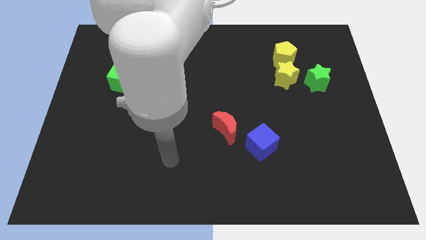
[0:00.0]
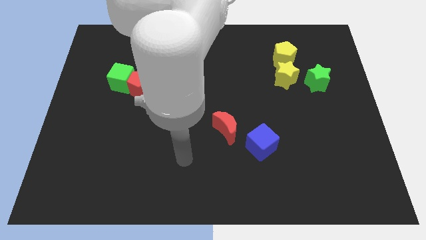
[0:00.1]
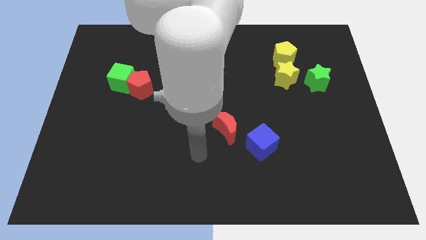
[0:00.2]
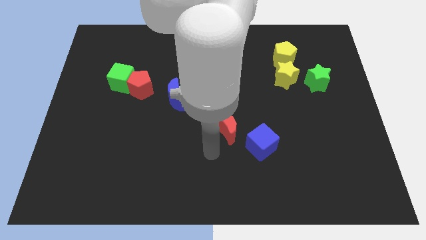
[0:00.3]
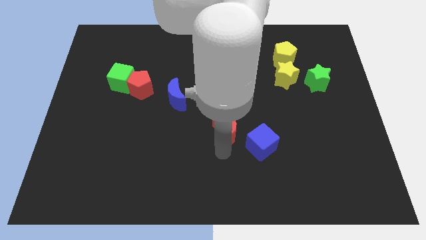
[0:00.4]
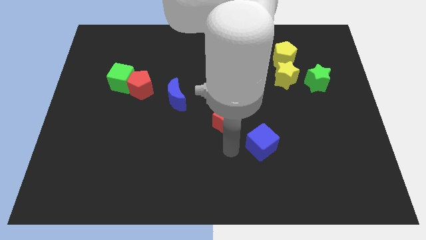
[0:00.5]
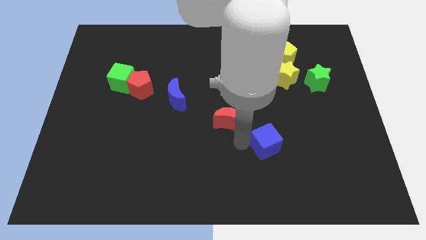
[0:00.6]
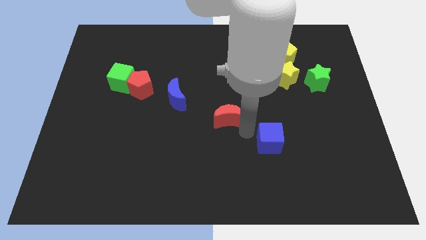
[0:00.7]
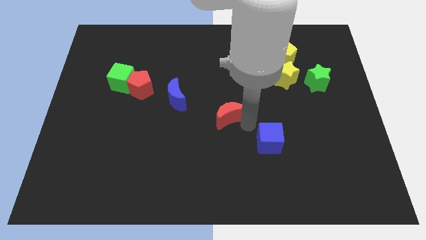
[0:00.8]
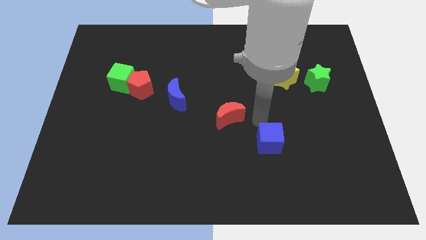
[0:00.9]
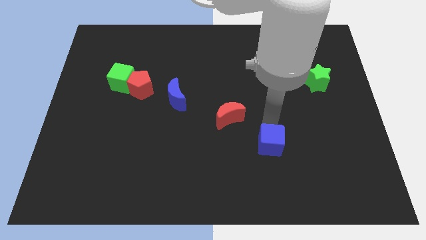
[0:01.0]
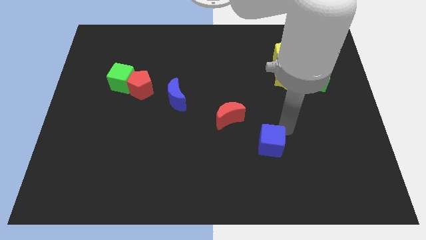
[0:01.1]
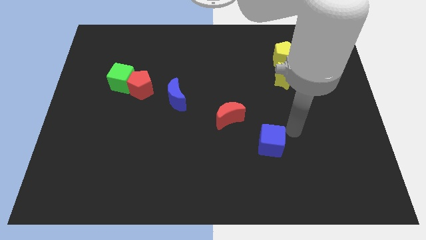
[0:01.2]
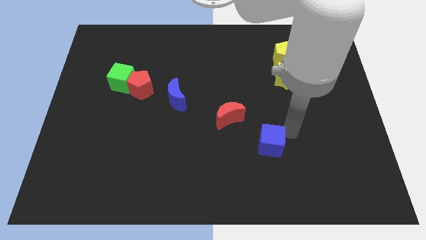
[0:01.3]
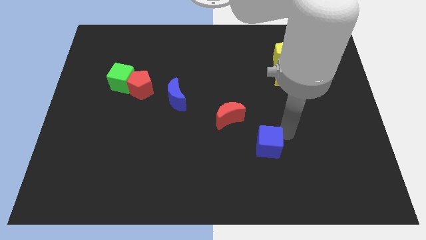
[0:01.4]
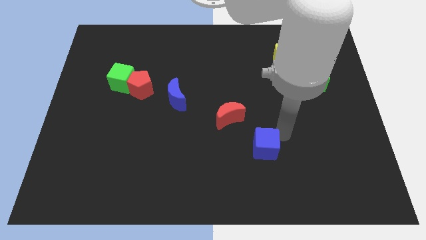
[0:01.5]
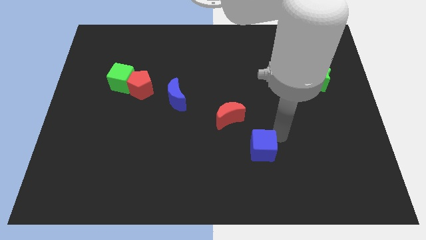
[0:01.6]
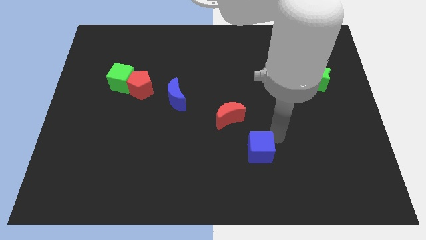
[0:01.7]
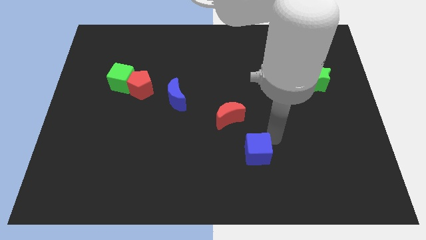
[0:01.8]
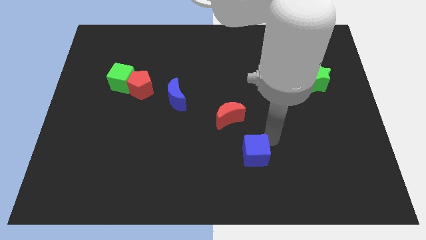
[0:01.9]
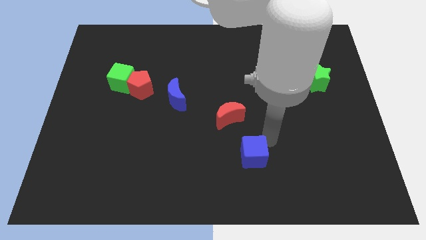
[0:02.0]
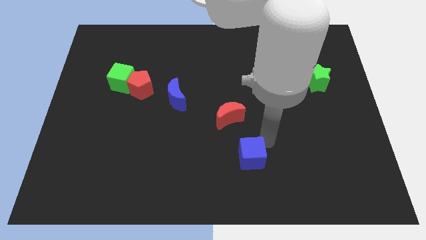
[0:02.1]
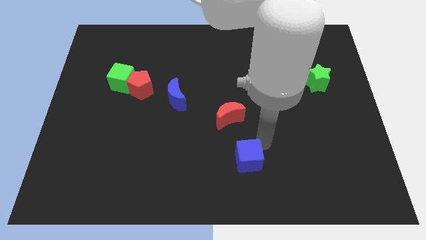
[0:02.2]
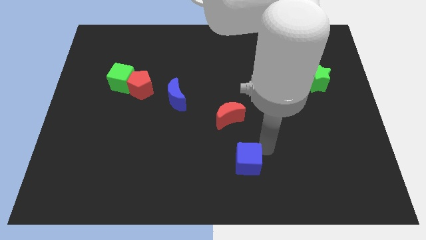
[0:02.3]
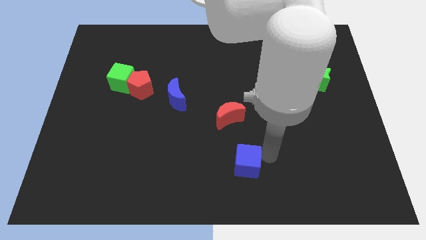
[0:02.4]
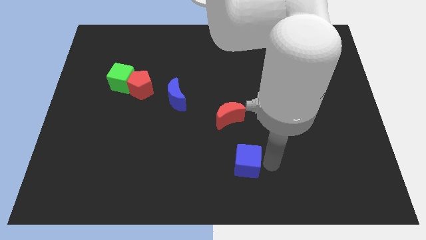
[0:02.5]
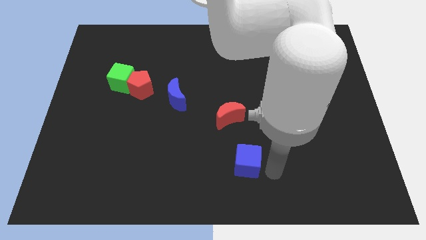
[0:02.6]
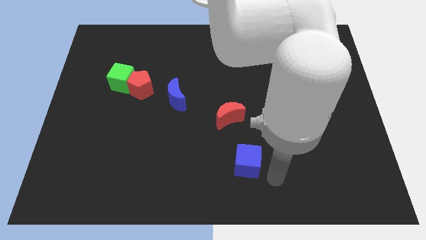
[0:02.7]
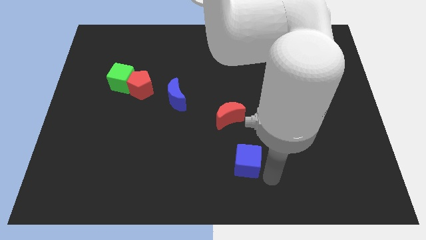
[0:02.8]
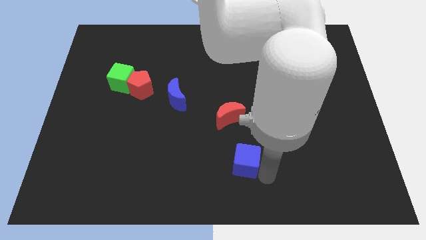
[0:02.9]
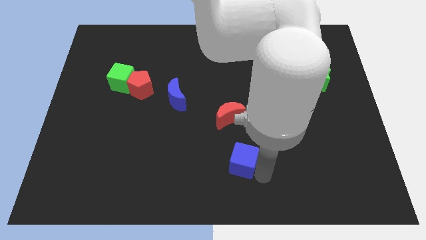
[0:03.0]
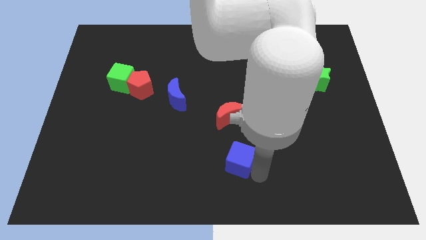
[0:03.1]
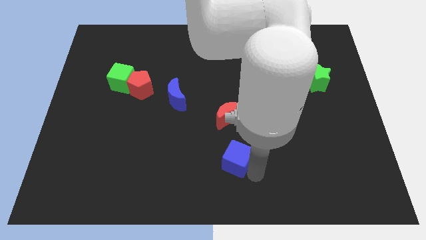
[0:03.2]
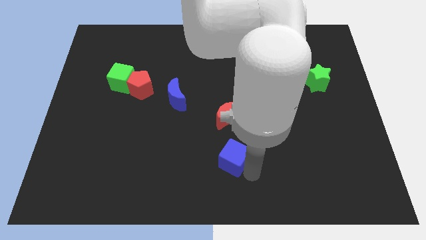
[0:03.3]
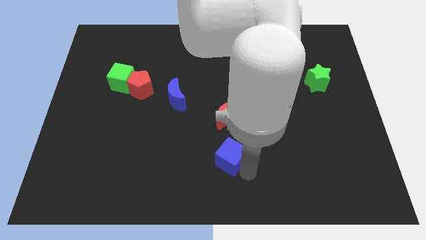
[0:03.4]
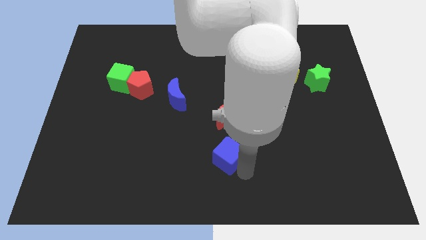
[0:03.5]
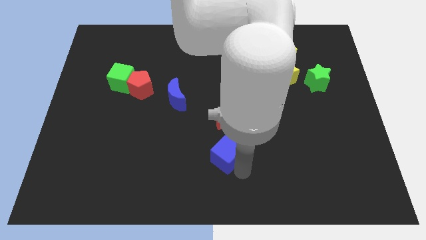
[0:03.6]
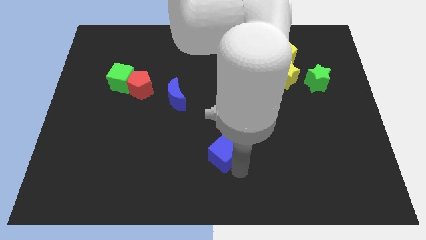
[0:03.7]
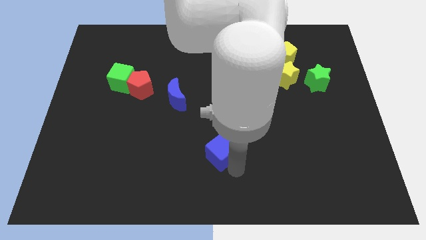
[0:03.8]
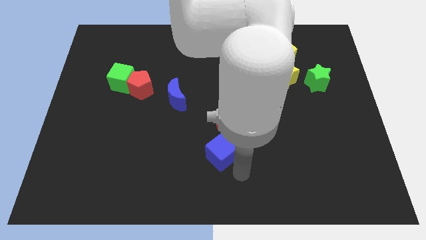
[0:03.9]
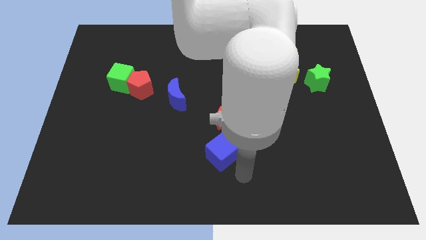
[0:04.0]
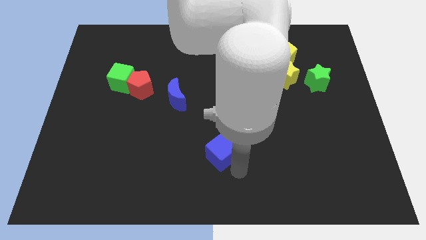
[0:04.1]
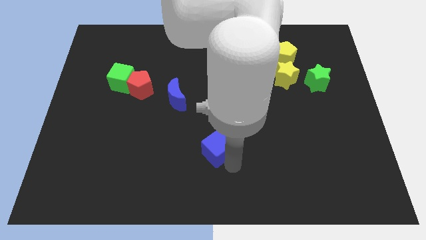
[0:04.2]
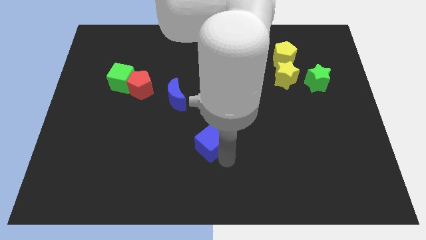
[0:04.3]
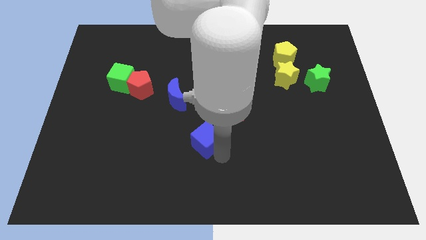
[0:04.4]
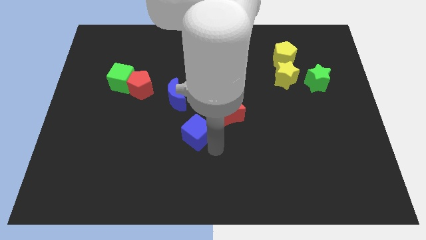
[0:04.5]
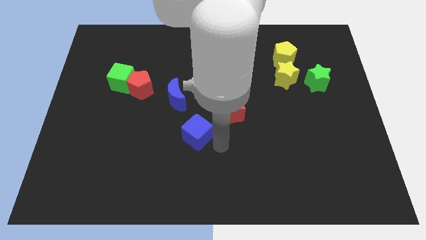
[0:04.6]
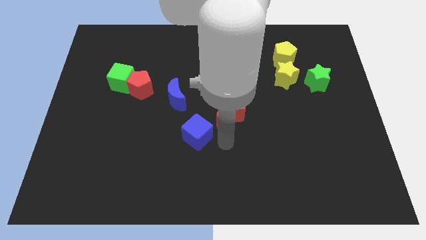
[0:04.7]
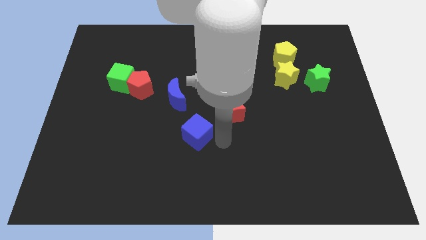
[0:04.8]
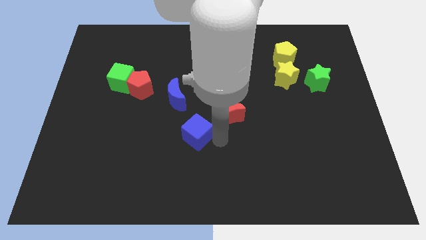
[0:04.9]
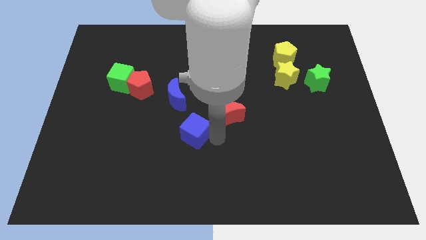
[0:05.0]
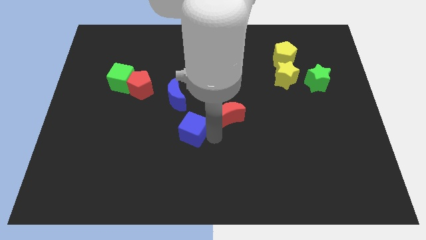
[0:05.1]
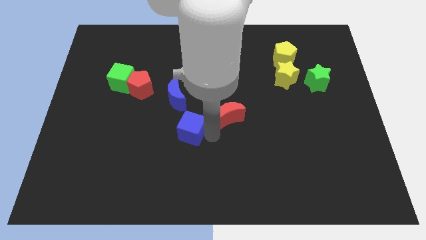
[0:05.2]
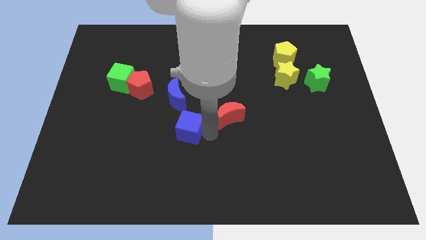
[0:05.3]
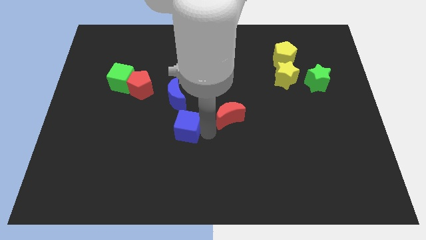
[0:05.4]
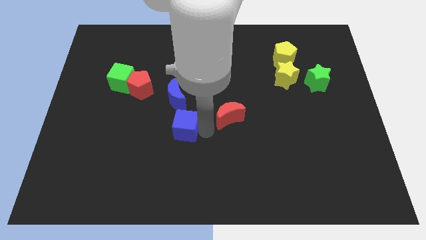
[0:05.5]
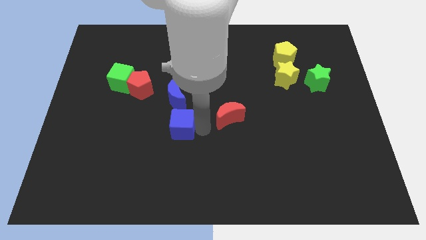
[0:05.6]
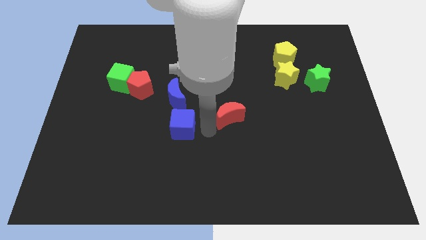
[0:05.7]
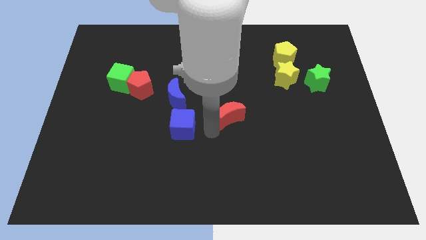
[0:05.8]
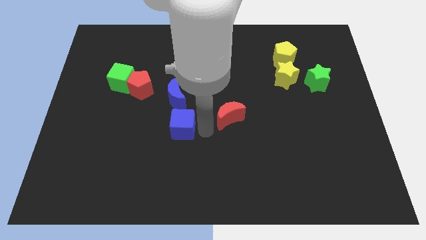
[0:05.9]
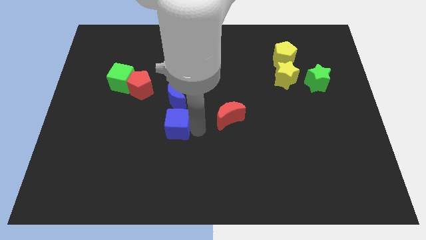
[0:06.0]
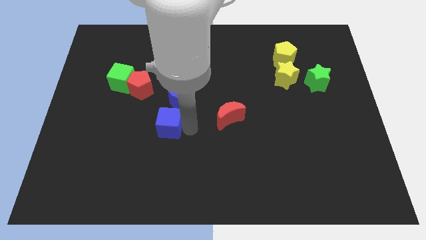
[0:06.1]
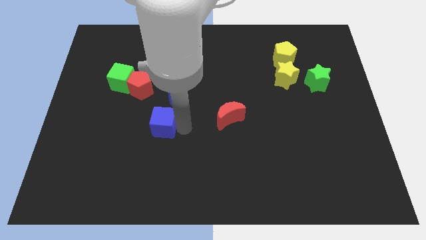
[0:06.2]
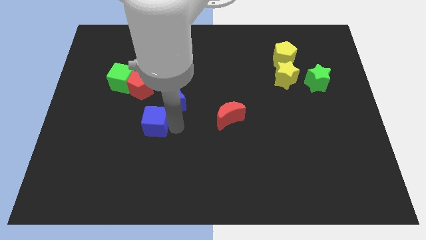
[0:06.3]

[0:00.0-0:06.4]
move the blue cube to the bottom side of the red pentagon

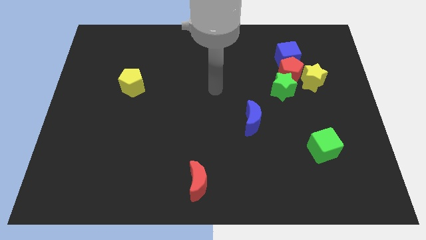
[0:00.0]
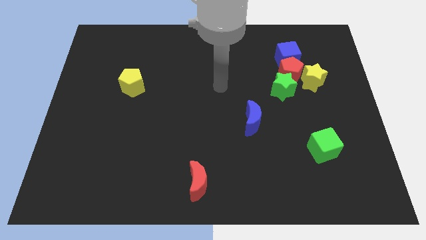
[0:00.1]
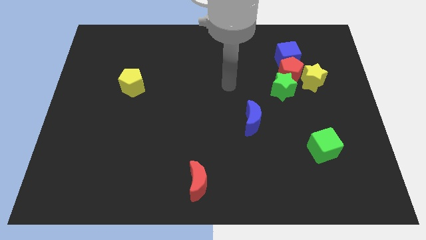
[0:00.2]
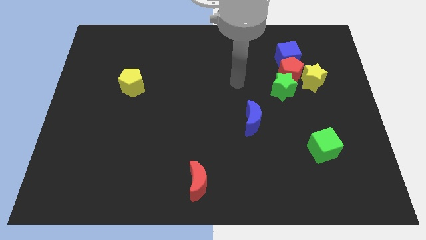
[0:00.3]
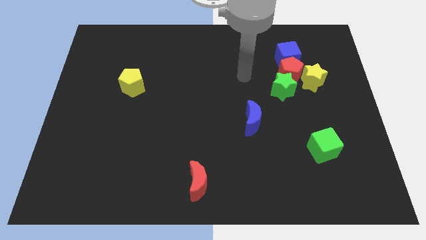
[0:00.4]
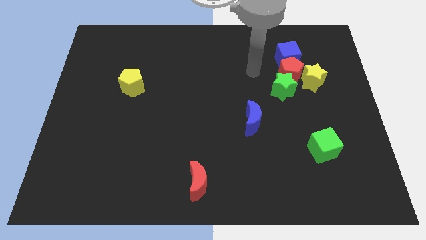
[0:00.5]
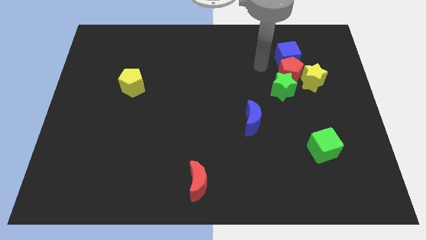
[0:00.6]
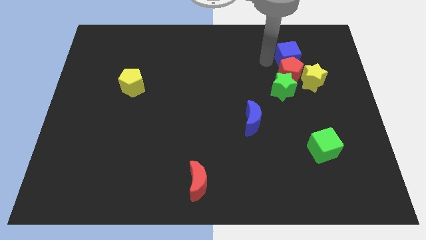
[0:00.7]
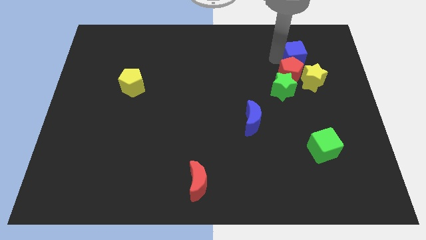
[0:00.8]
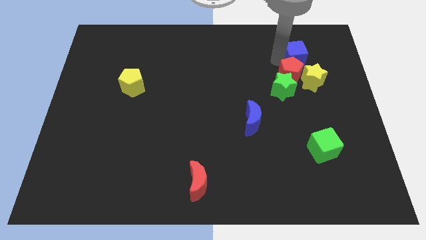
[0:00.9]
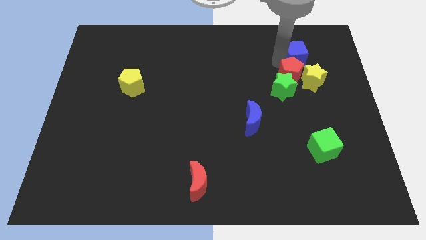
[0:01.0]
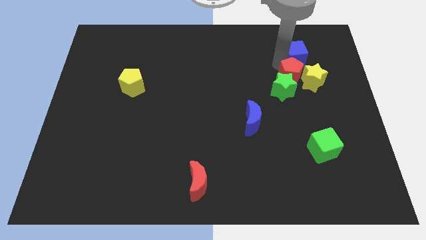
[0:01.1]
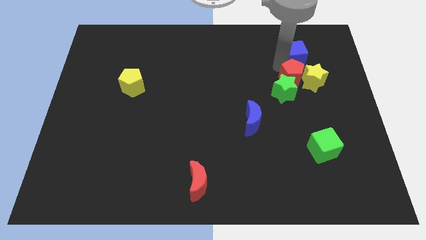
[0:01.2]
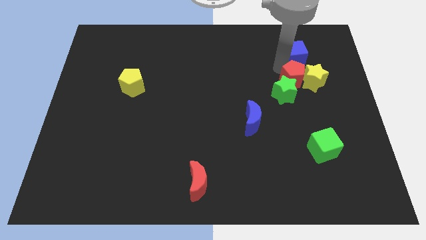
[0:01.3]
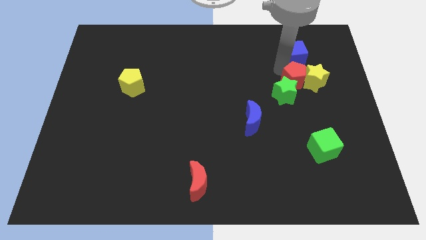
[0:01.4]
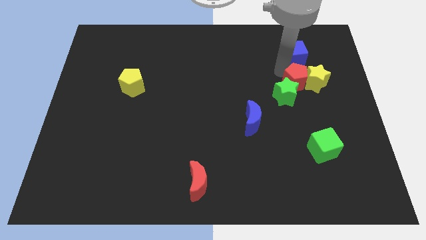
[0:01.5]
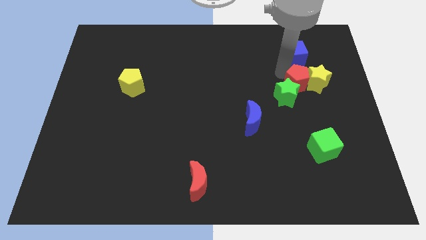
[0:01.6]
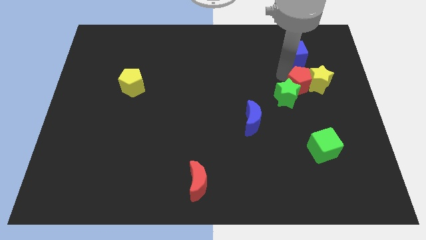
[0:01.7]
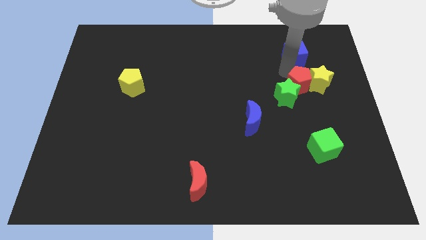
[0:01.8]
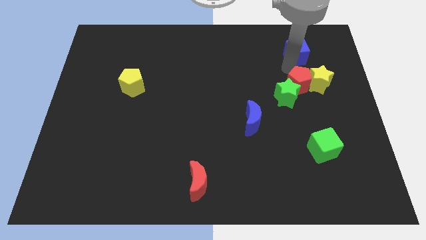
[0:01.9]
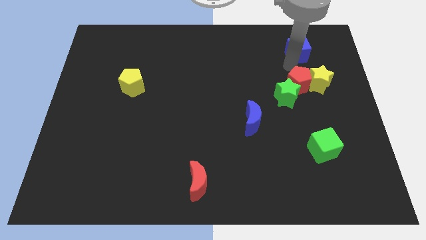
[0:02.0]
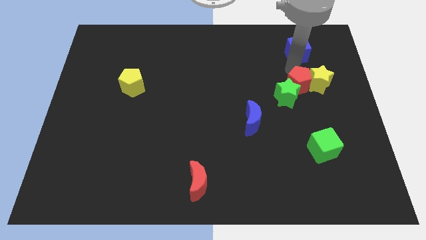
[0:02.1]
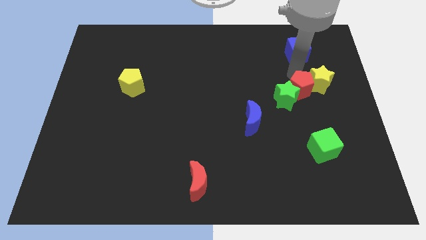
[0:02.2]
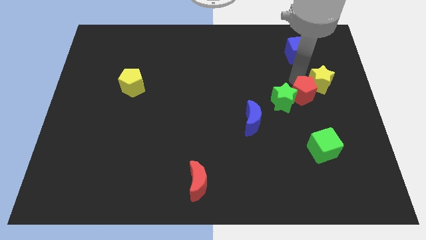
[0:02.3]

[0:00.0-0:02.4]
put the red pentagon to the bottom side of the yellow star
